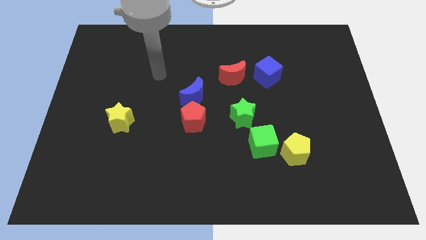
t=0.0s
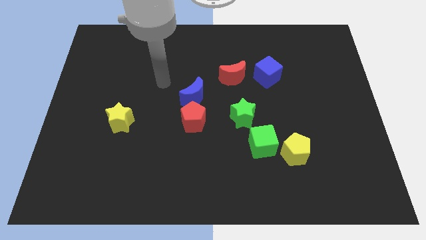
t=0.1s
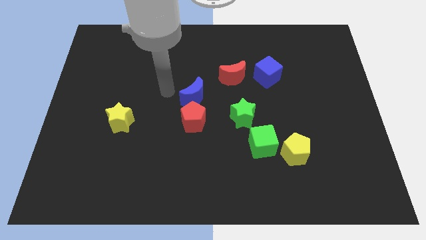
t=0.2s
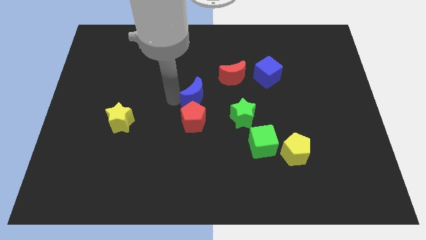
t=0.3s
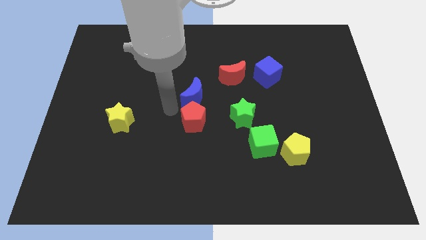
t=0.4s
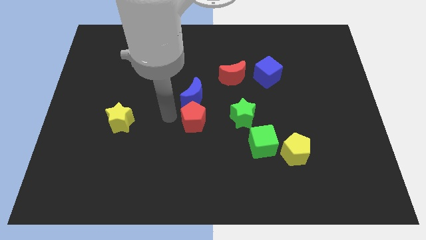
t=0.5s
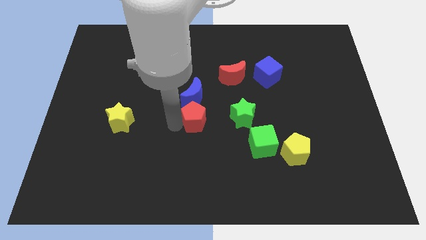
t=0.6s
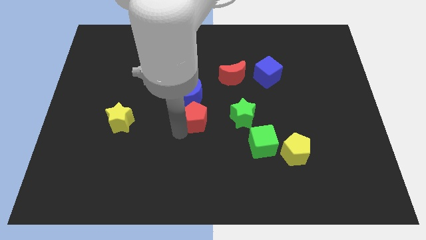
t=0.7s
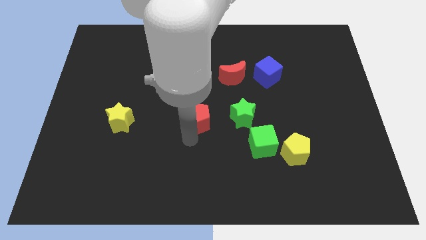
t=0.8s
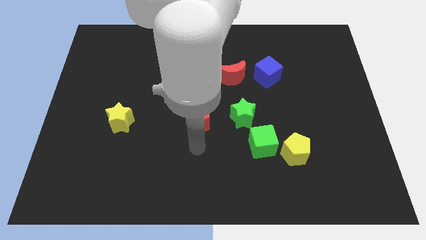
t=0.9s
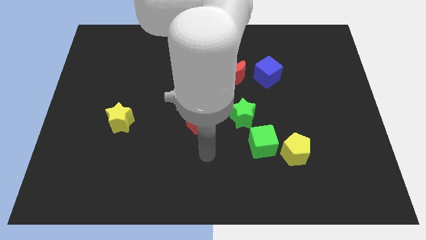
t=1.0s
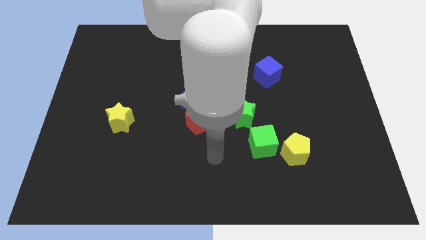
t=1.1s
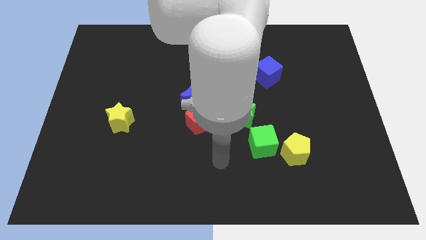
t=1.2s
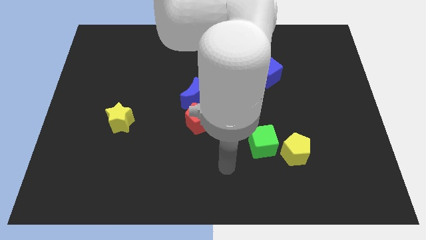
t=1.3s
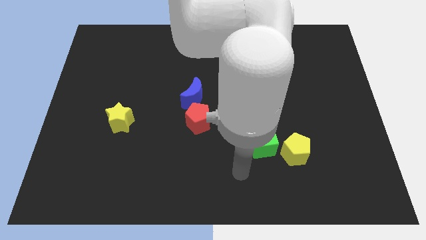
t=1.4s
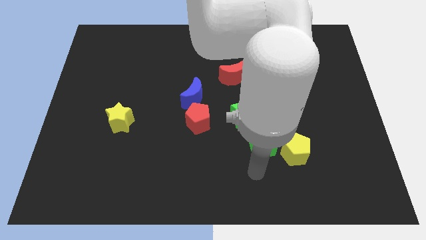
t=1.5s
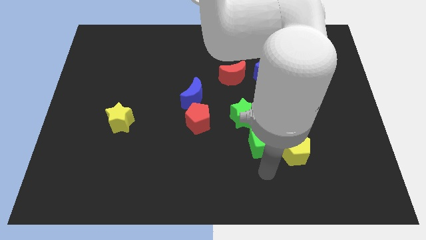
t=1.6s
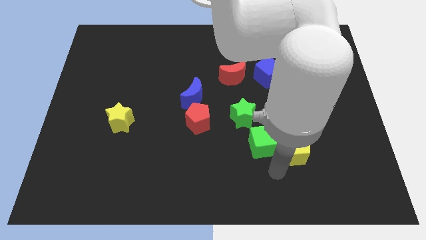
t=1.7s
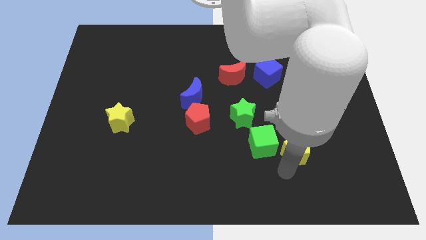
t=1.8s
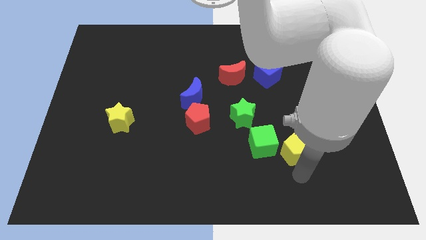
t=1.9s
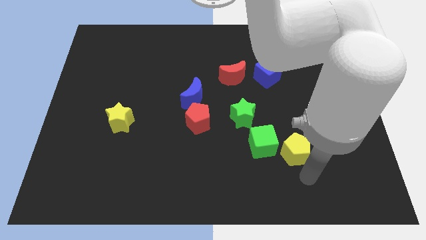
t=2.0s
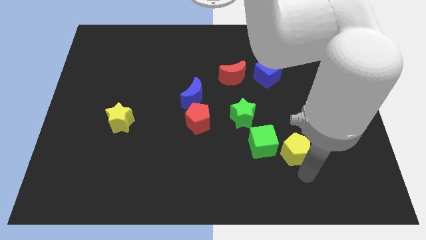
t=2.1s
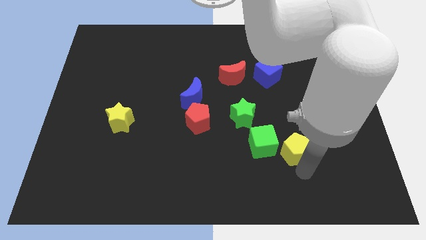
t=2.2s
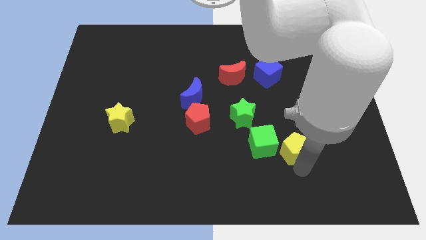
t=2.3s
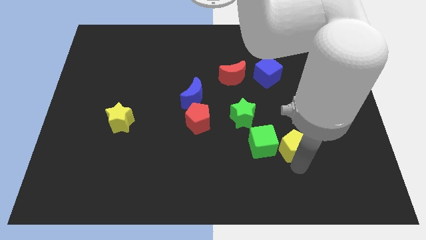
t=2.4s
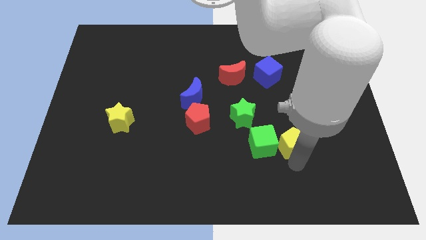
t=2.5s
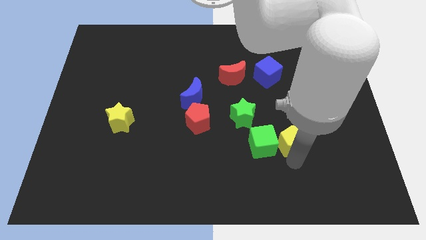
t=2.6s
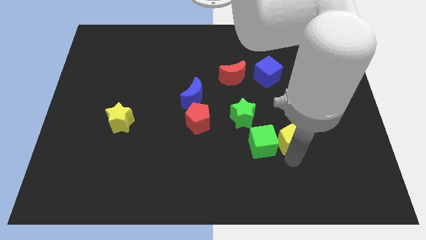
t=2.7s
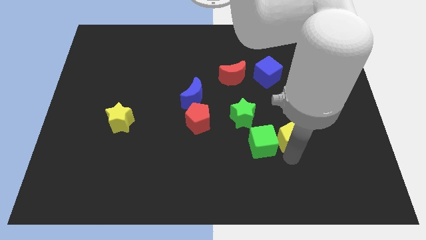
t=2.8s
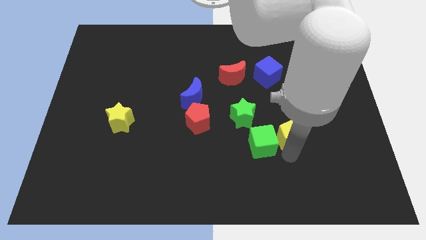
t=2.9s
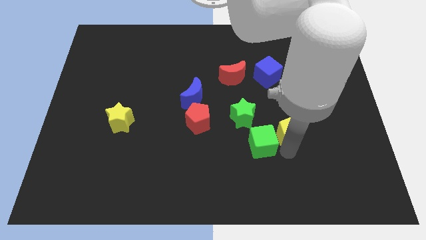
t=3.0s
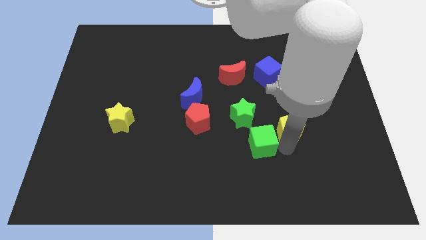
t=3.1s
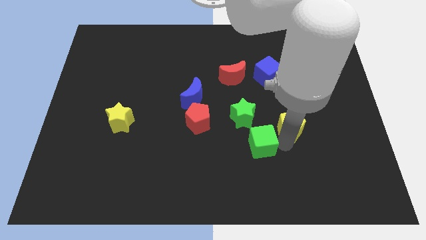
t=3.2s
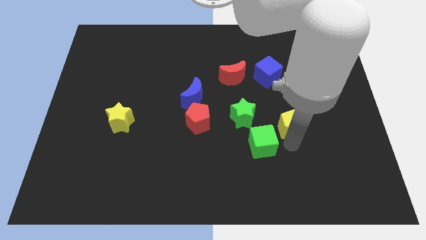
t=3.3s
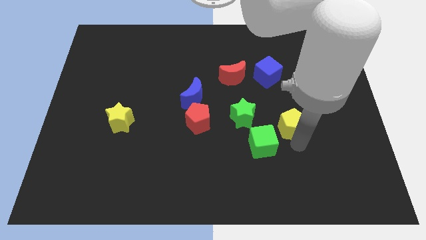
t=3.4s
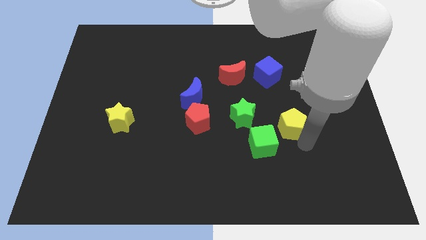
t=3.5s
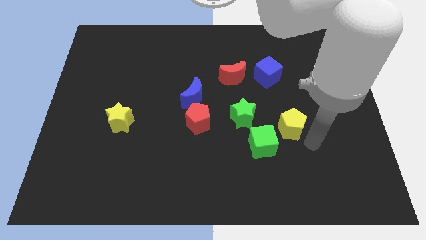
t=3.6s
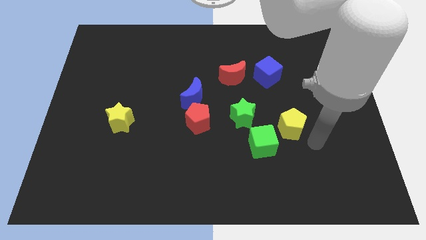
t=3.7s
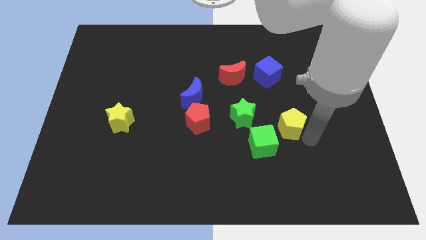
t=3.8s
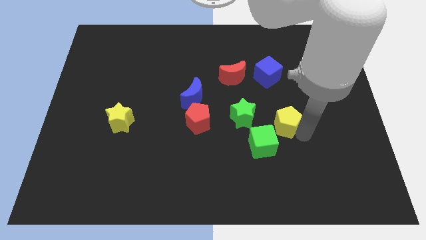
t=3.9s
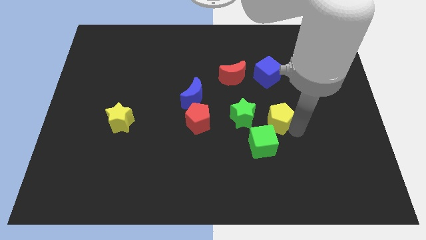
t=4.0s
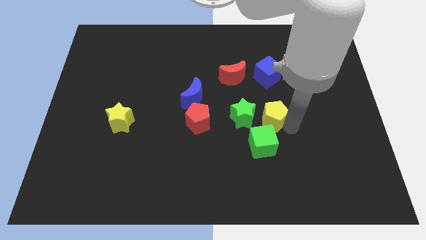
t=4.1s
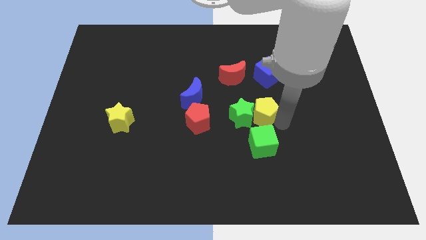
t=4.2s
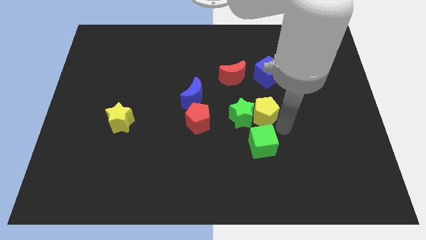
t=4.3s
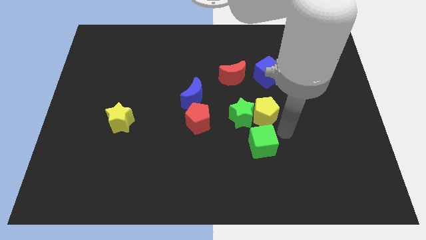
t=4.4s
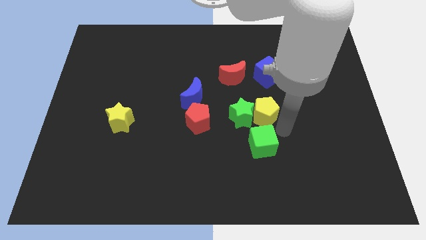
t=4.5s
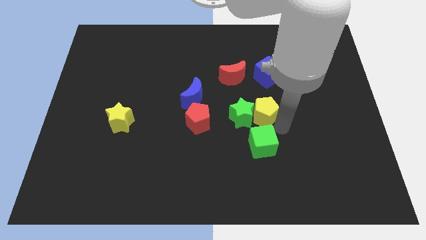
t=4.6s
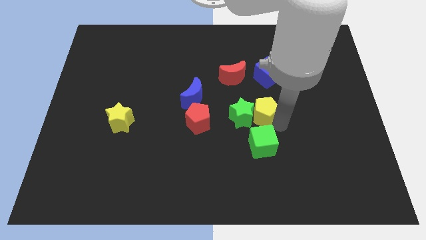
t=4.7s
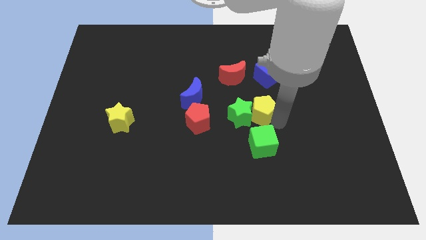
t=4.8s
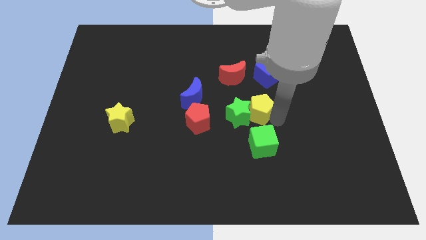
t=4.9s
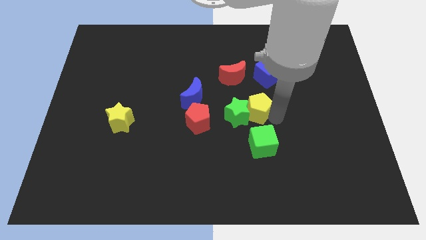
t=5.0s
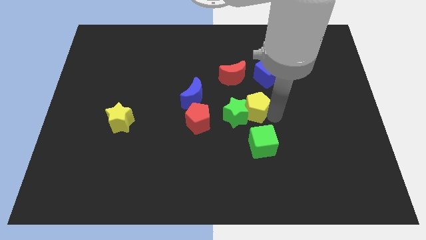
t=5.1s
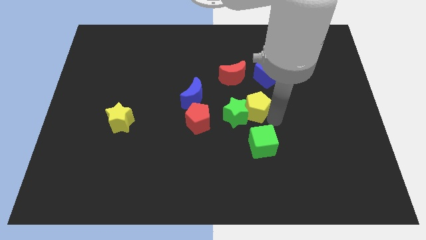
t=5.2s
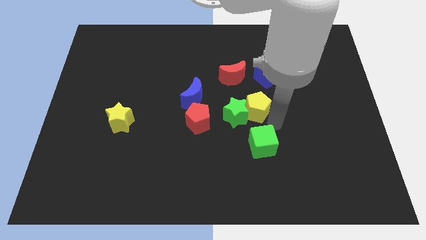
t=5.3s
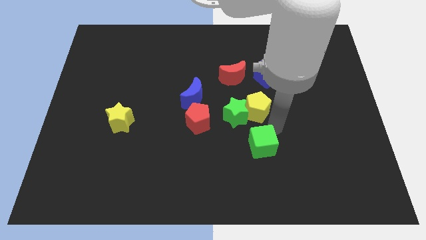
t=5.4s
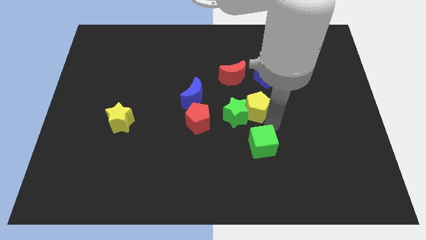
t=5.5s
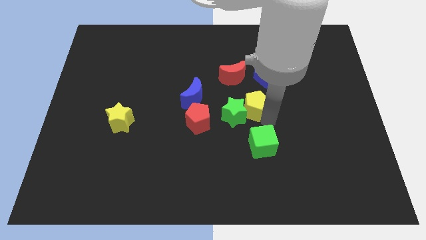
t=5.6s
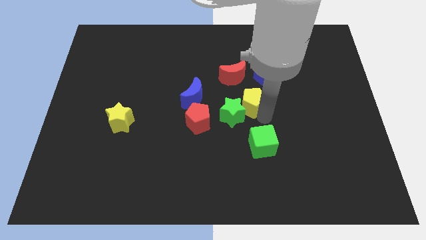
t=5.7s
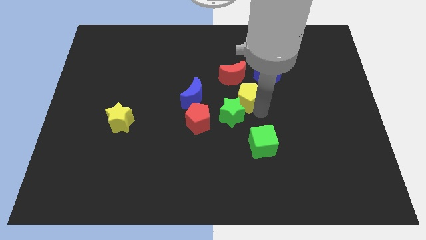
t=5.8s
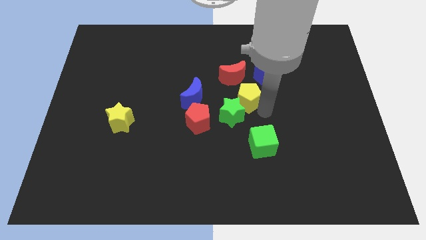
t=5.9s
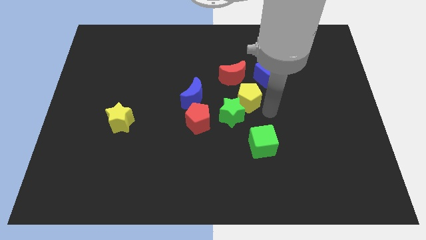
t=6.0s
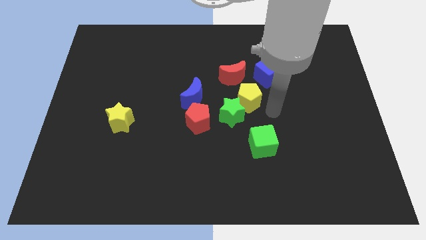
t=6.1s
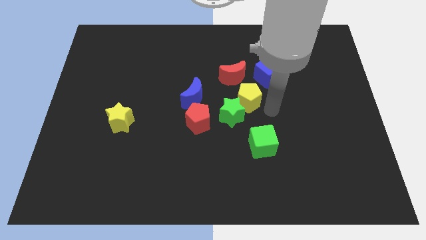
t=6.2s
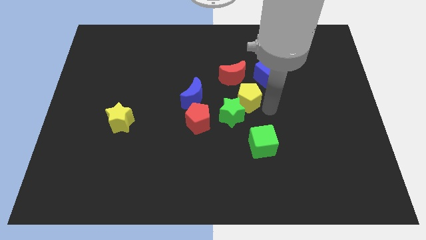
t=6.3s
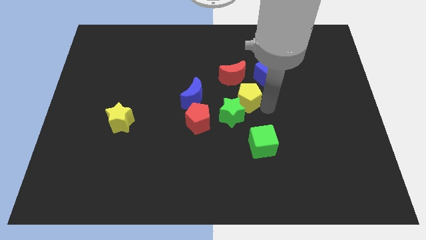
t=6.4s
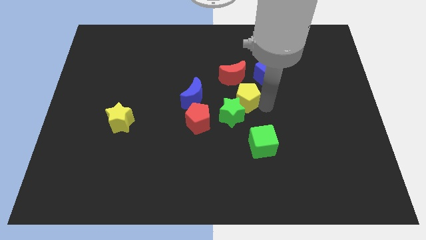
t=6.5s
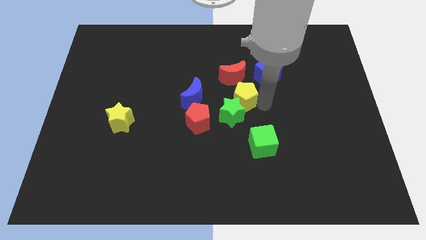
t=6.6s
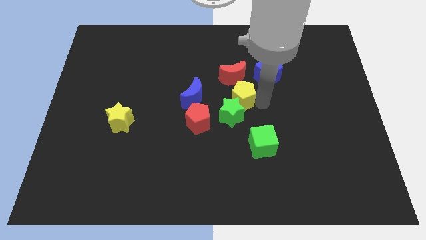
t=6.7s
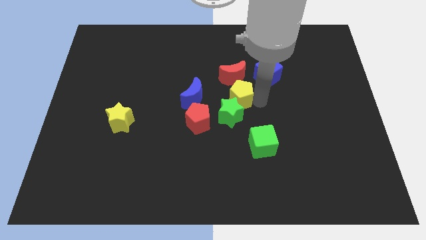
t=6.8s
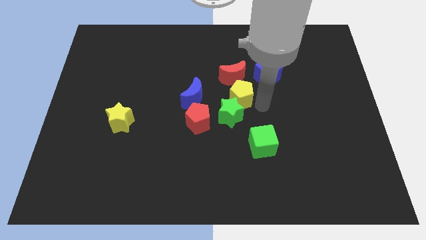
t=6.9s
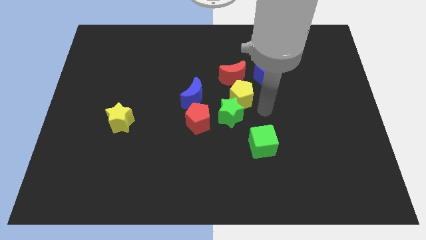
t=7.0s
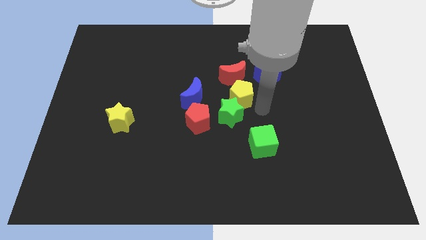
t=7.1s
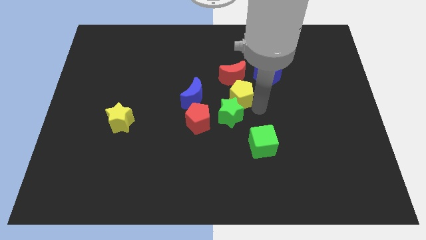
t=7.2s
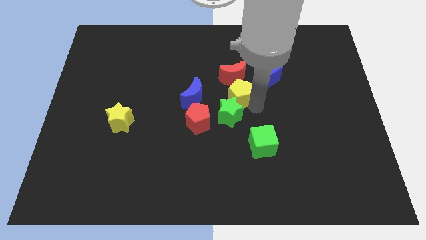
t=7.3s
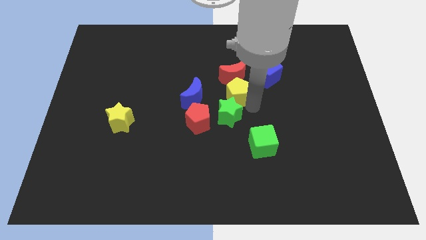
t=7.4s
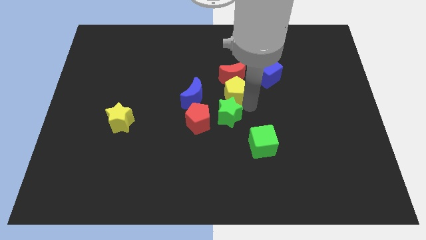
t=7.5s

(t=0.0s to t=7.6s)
push the yellow pentagon up and then to the left
